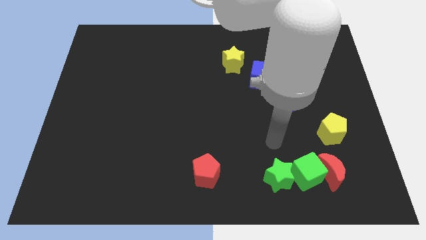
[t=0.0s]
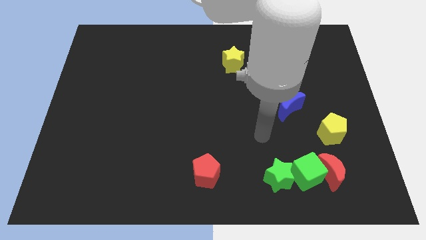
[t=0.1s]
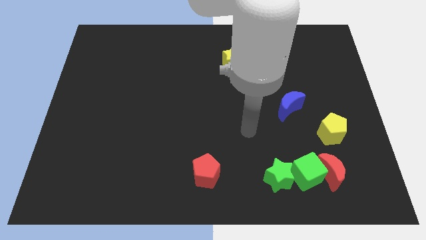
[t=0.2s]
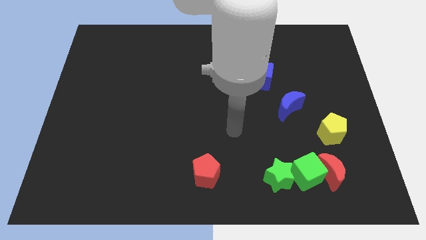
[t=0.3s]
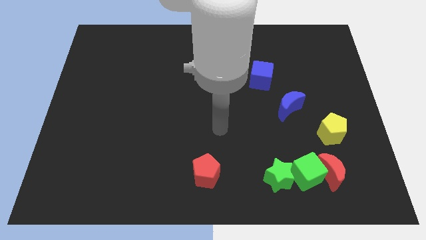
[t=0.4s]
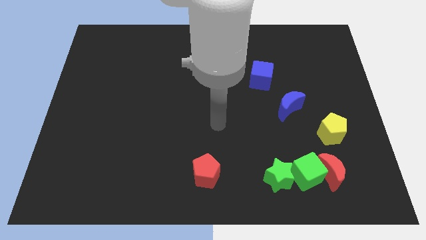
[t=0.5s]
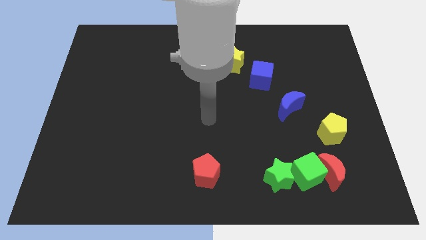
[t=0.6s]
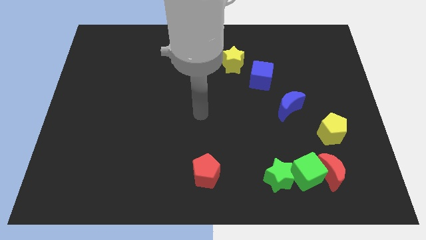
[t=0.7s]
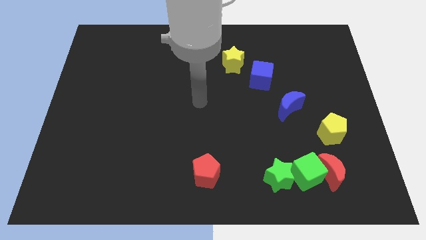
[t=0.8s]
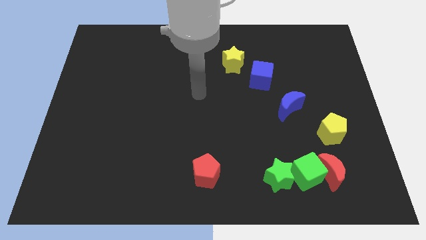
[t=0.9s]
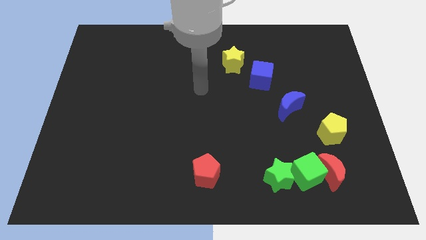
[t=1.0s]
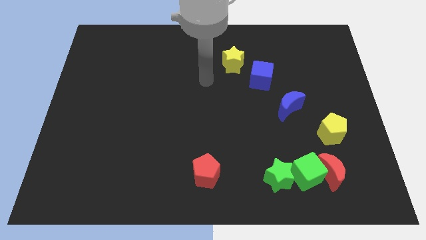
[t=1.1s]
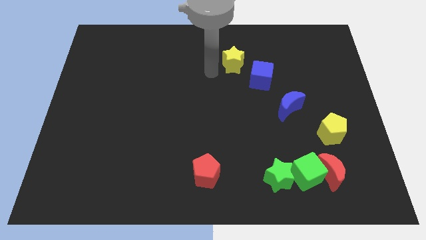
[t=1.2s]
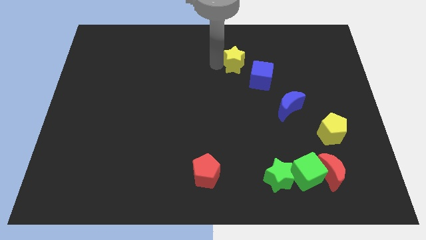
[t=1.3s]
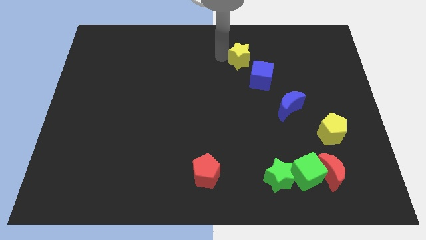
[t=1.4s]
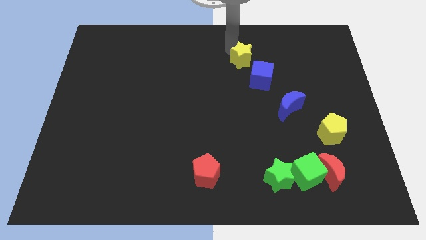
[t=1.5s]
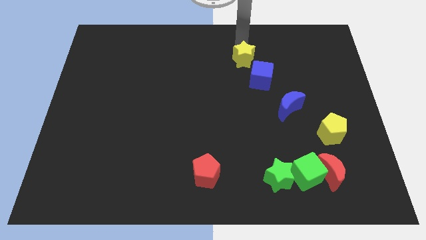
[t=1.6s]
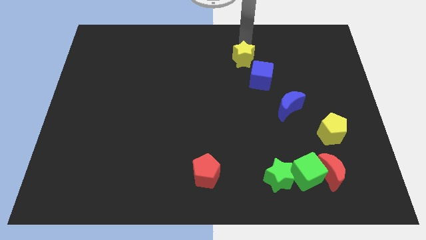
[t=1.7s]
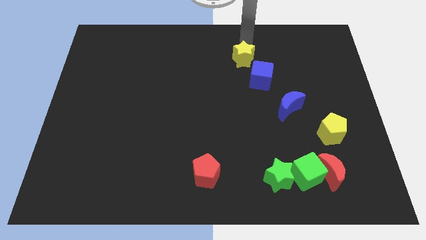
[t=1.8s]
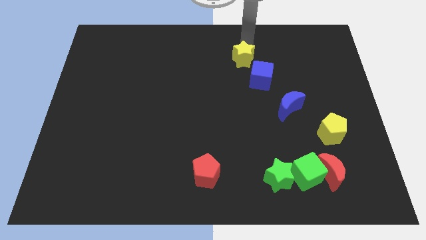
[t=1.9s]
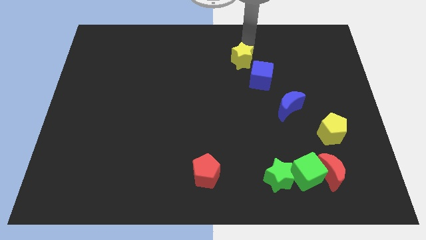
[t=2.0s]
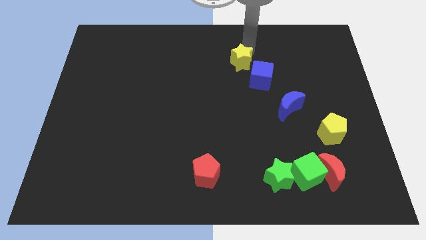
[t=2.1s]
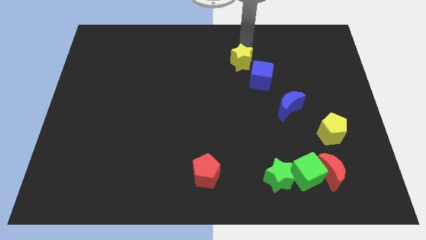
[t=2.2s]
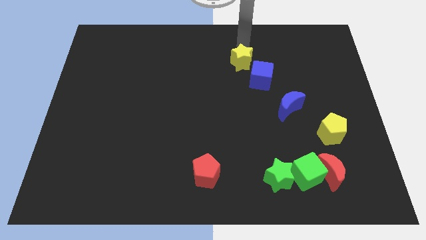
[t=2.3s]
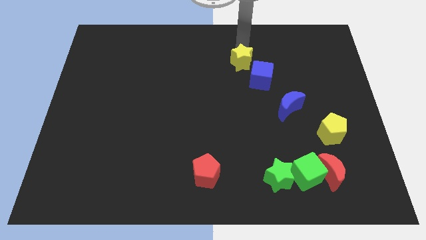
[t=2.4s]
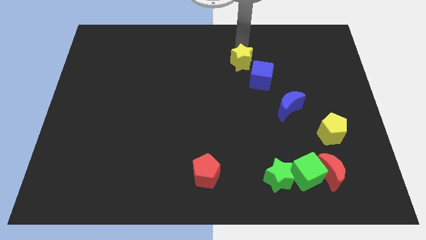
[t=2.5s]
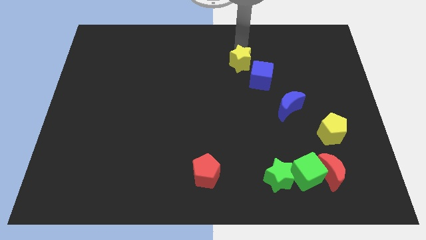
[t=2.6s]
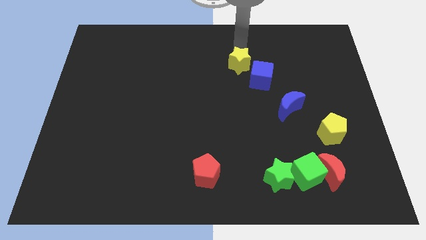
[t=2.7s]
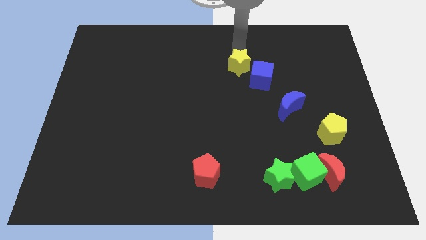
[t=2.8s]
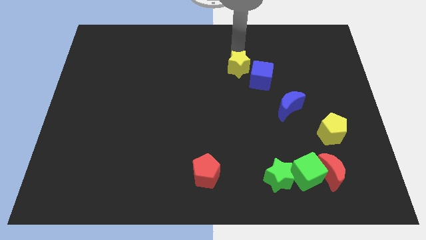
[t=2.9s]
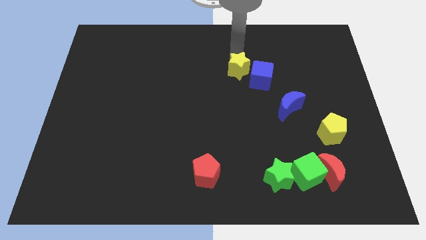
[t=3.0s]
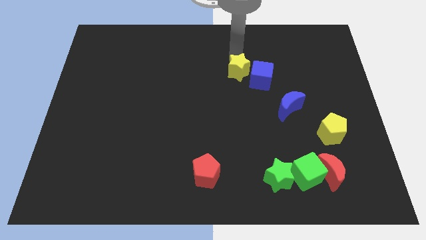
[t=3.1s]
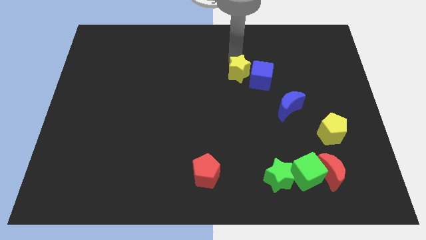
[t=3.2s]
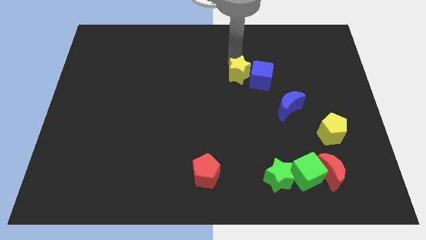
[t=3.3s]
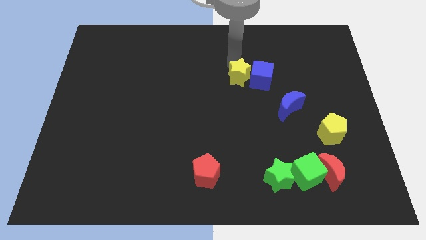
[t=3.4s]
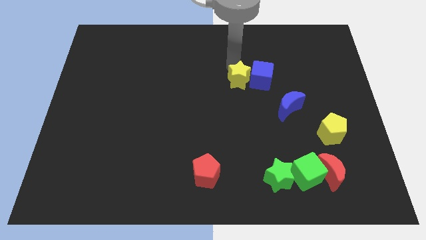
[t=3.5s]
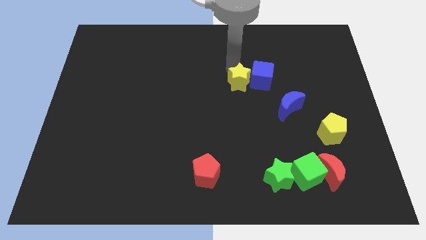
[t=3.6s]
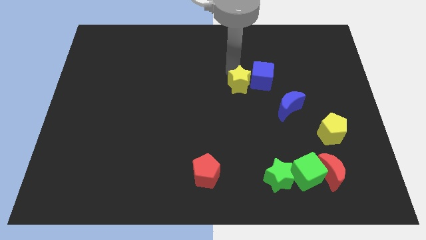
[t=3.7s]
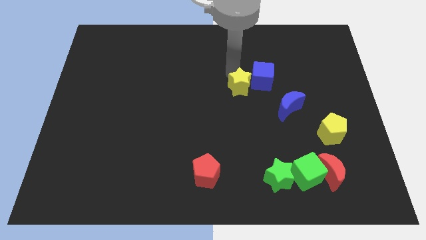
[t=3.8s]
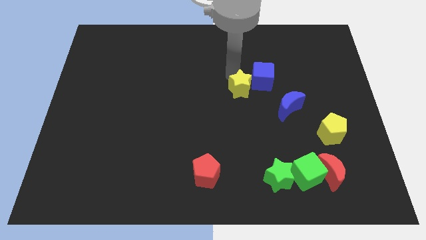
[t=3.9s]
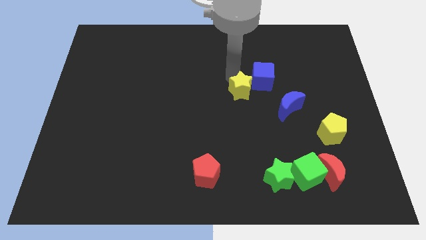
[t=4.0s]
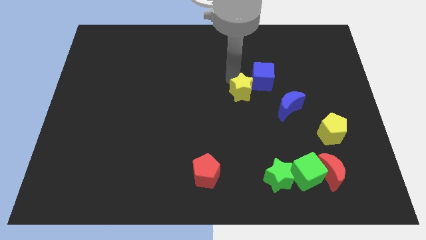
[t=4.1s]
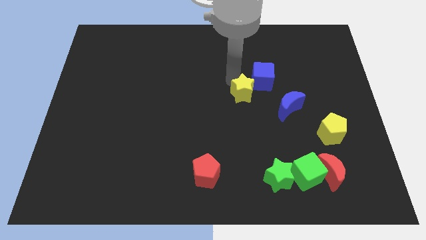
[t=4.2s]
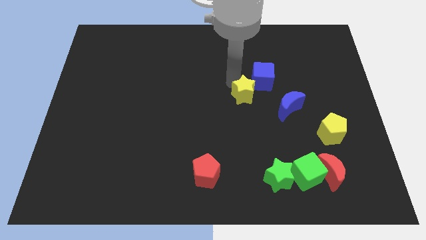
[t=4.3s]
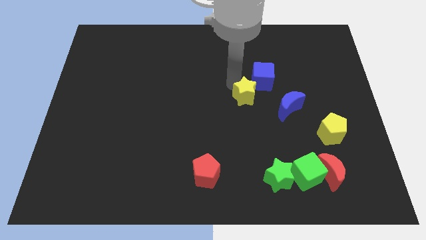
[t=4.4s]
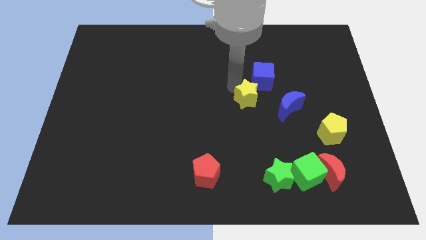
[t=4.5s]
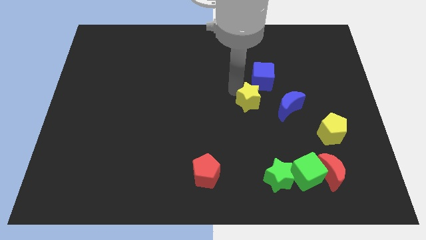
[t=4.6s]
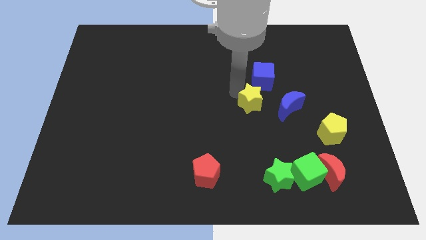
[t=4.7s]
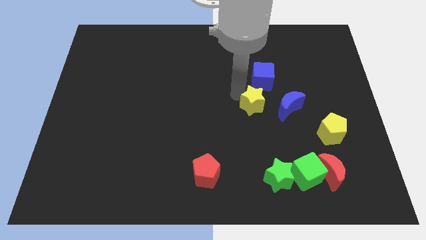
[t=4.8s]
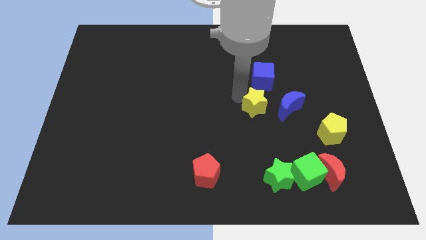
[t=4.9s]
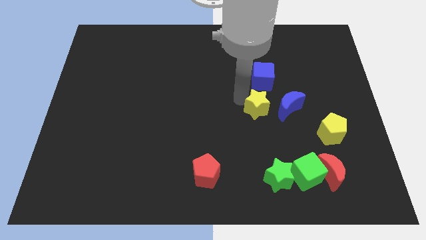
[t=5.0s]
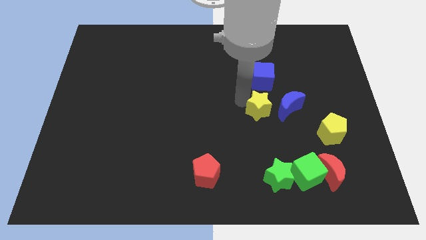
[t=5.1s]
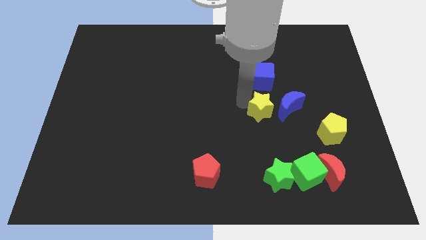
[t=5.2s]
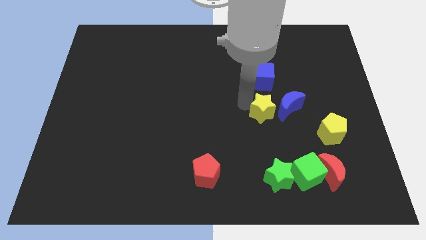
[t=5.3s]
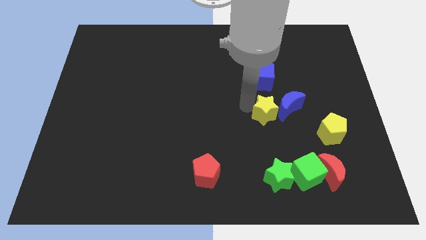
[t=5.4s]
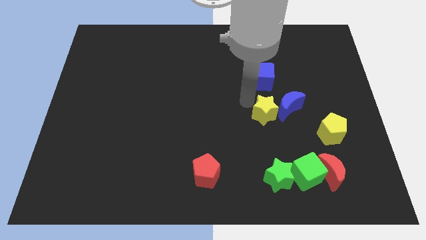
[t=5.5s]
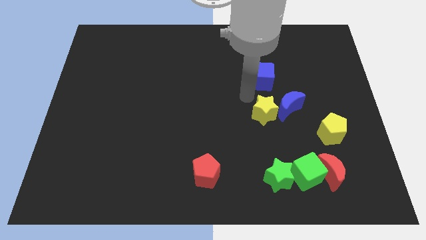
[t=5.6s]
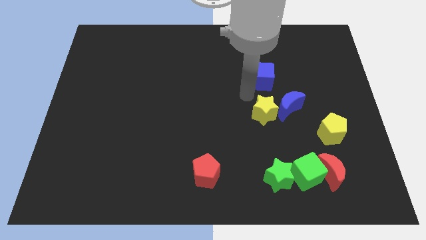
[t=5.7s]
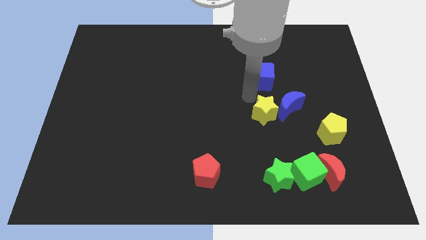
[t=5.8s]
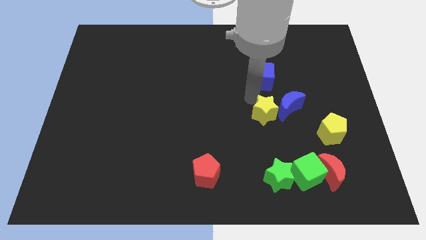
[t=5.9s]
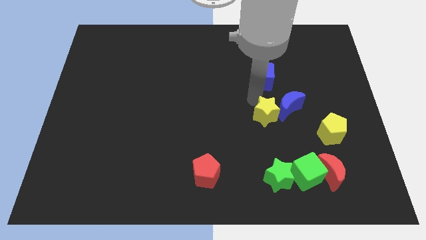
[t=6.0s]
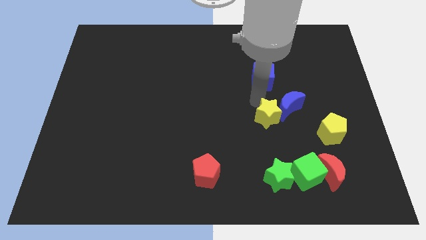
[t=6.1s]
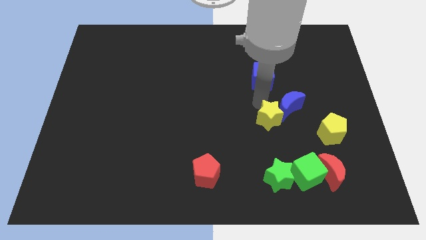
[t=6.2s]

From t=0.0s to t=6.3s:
slide the yellow star just left of the yellow pentagon

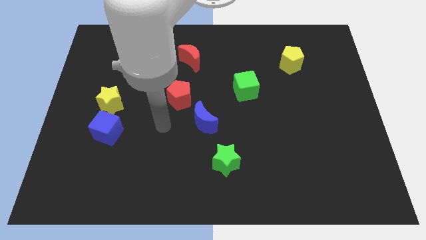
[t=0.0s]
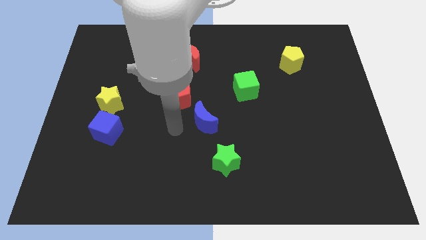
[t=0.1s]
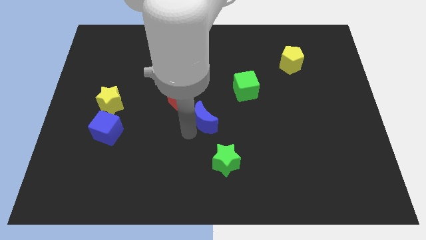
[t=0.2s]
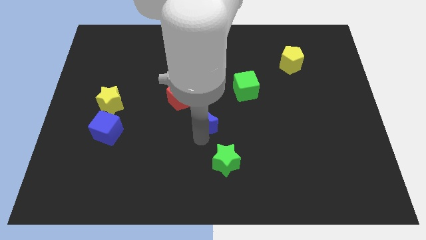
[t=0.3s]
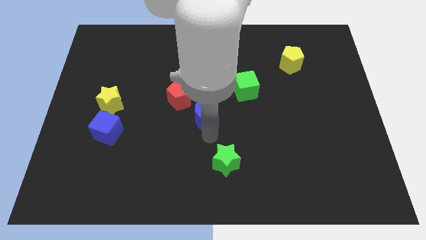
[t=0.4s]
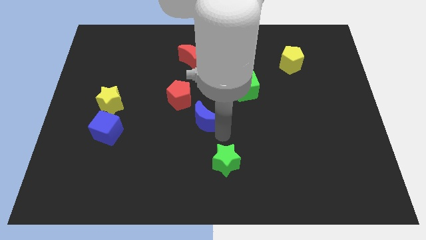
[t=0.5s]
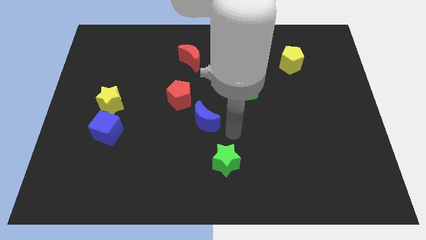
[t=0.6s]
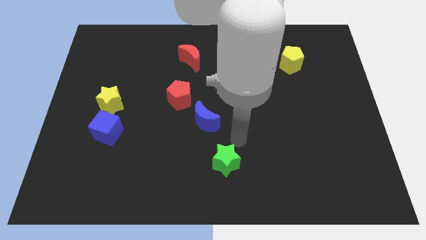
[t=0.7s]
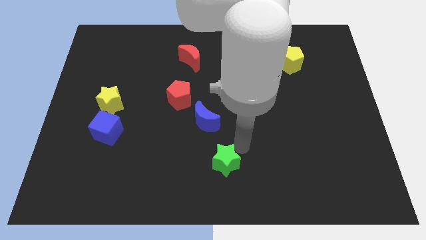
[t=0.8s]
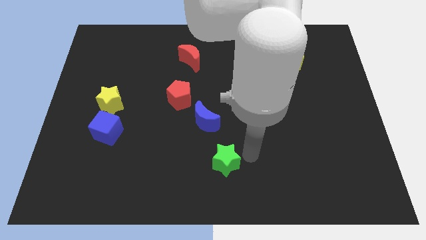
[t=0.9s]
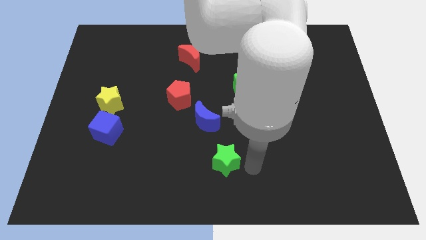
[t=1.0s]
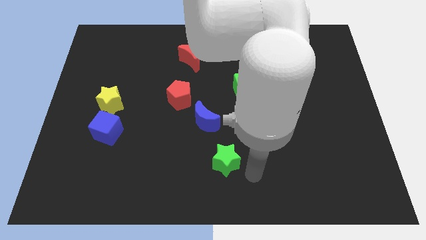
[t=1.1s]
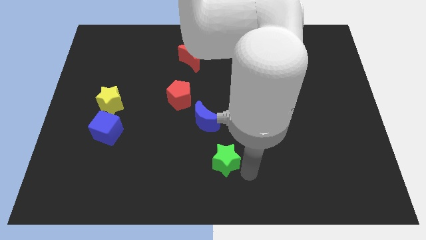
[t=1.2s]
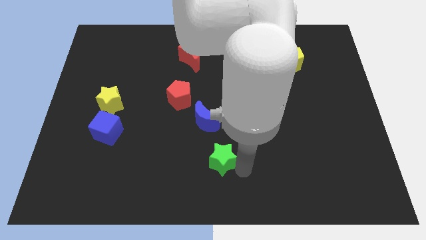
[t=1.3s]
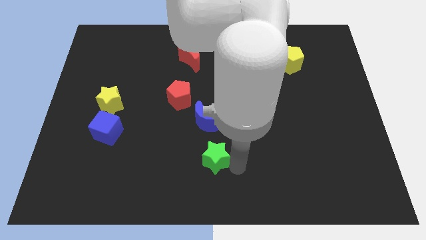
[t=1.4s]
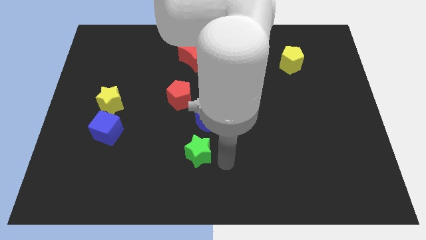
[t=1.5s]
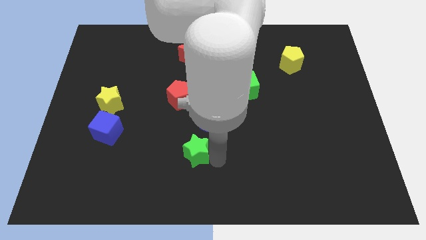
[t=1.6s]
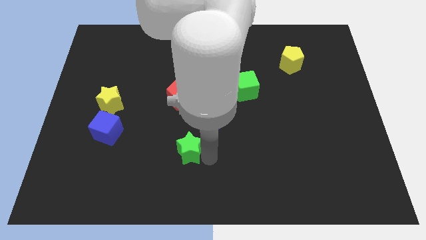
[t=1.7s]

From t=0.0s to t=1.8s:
move the green star to the bottom side of the red pentagon
